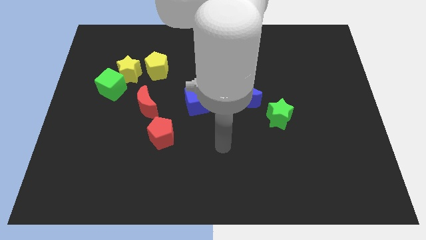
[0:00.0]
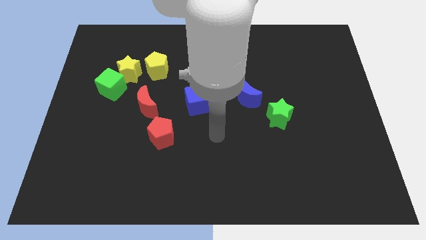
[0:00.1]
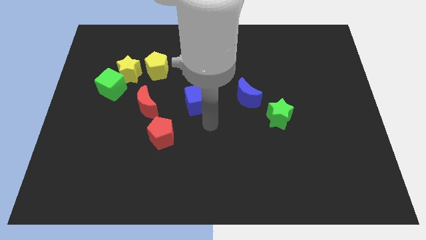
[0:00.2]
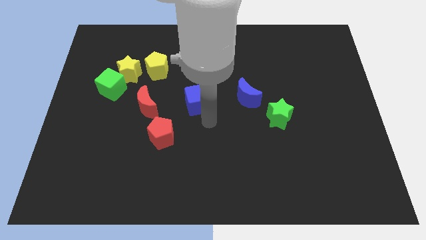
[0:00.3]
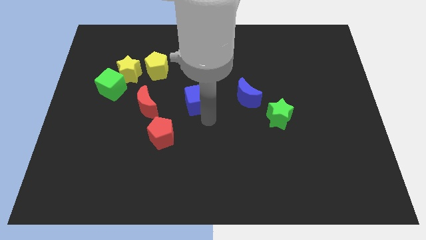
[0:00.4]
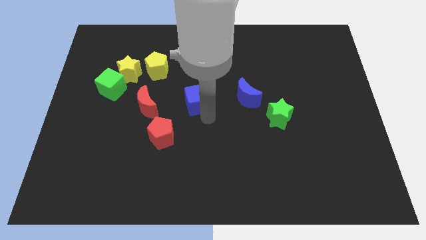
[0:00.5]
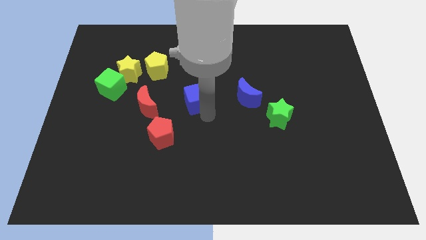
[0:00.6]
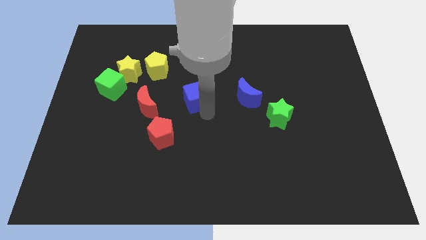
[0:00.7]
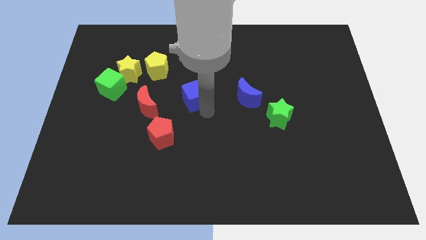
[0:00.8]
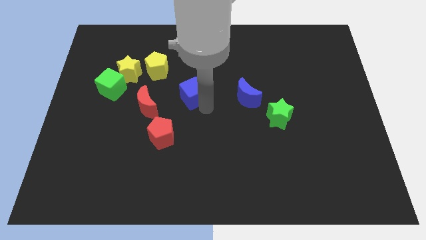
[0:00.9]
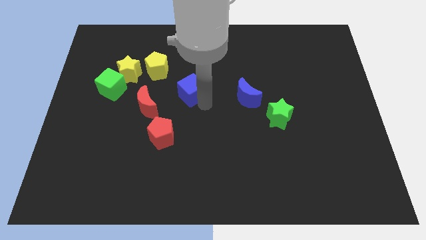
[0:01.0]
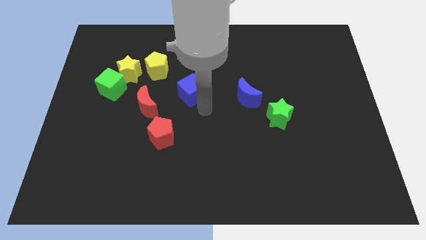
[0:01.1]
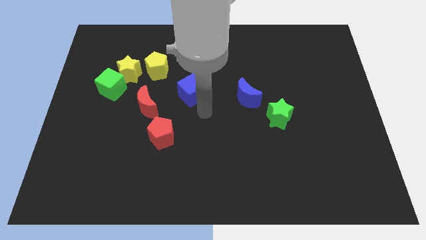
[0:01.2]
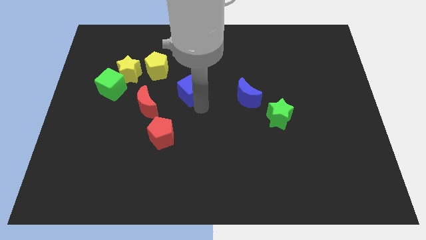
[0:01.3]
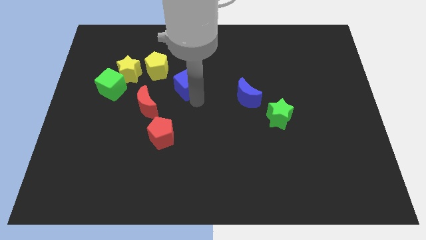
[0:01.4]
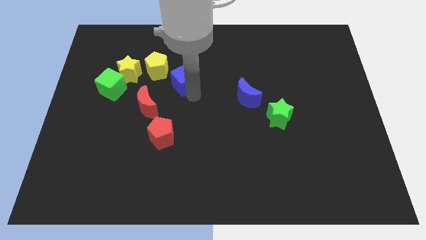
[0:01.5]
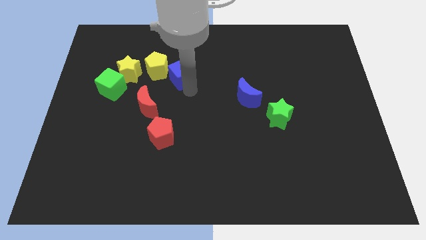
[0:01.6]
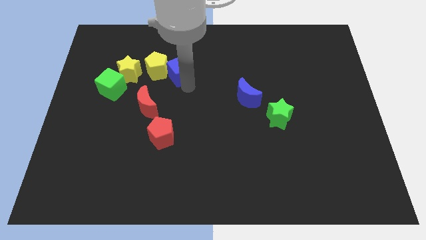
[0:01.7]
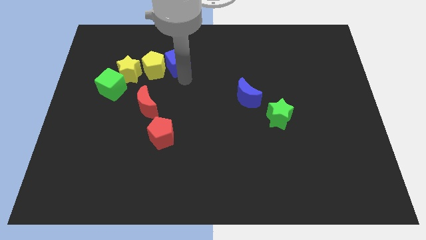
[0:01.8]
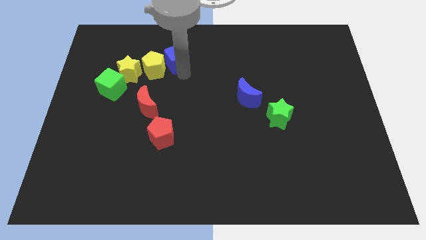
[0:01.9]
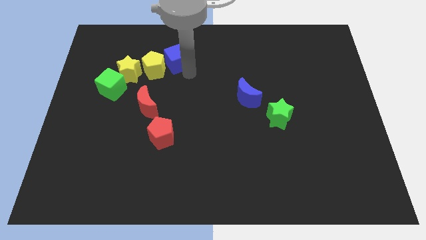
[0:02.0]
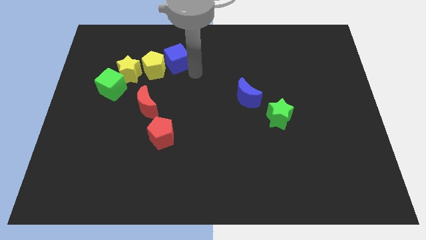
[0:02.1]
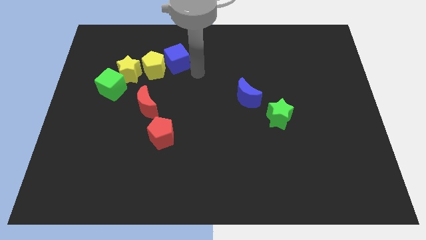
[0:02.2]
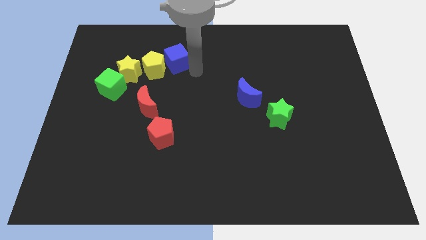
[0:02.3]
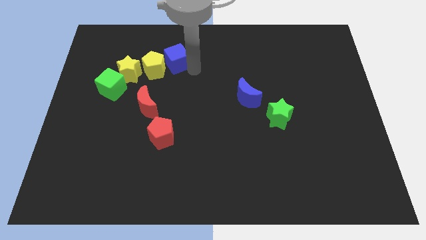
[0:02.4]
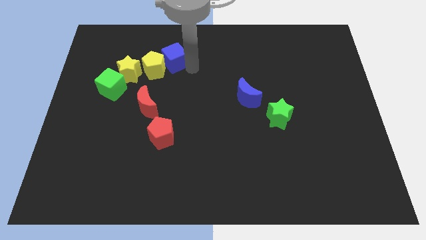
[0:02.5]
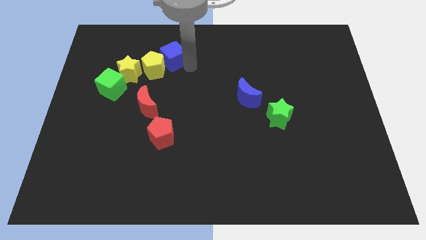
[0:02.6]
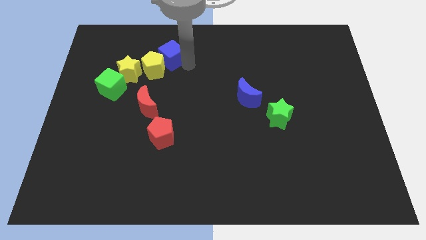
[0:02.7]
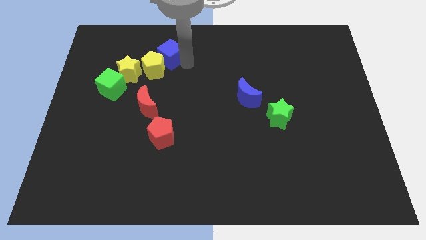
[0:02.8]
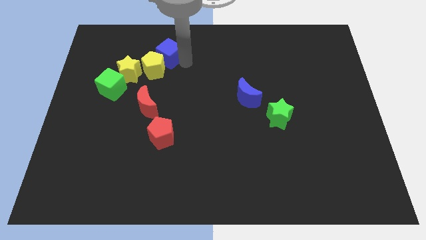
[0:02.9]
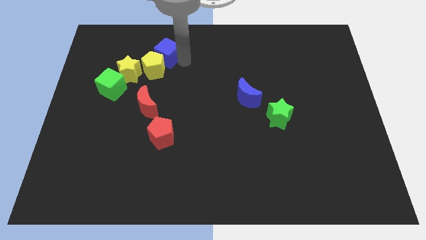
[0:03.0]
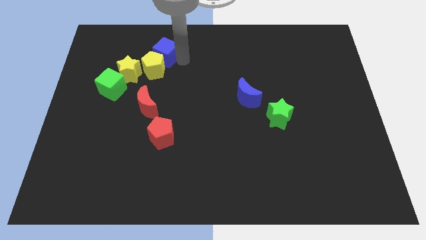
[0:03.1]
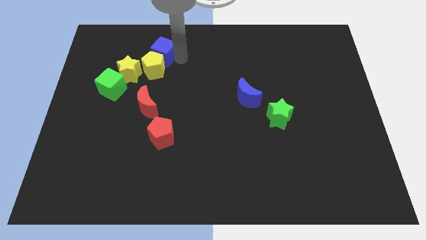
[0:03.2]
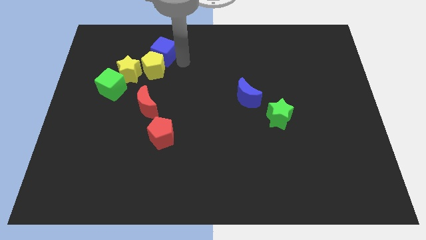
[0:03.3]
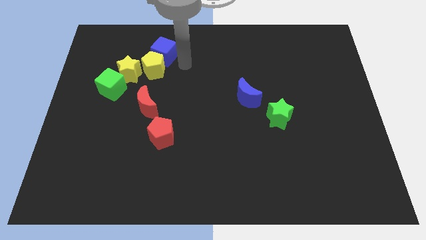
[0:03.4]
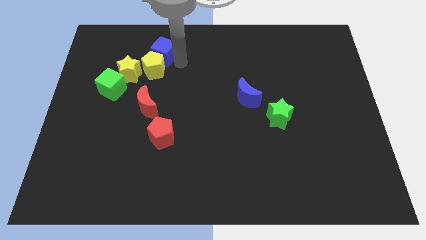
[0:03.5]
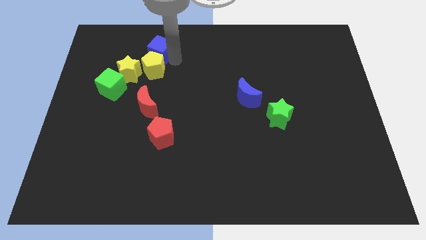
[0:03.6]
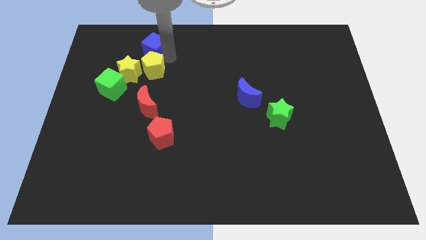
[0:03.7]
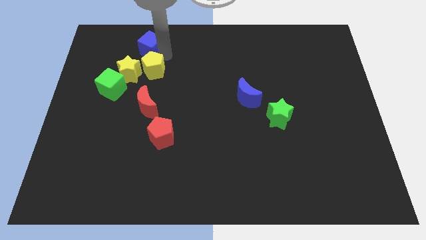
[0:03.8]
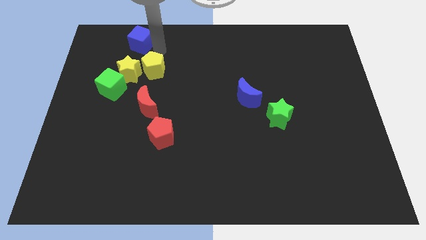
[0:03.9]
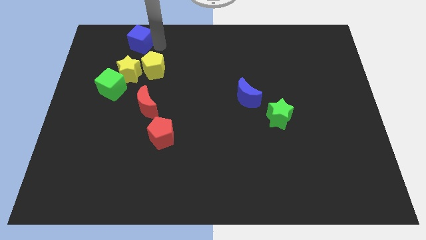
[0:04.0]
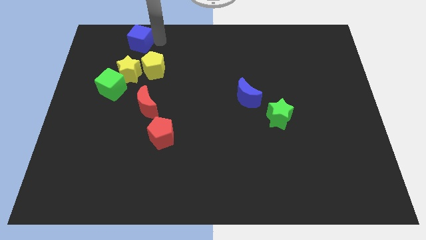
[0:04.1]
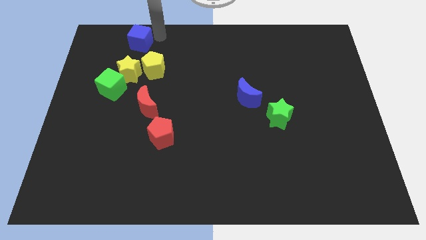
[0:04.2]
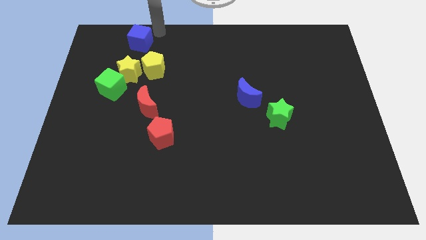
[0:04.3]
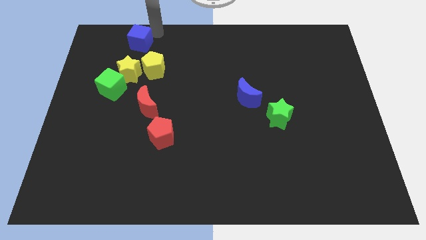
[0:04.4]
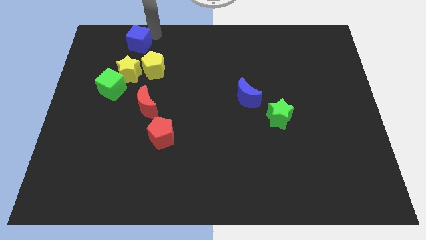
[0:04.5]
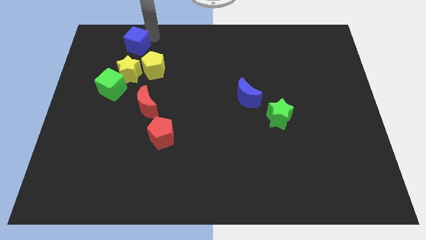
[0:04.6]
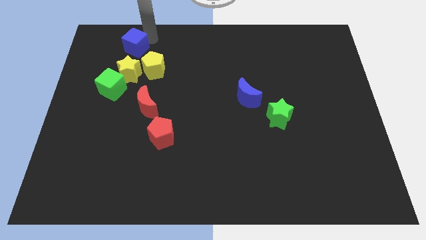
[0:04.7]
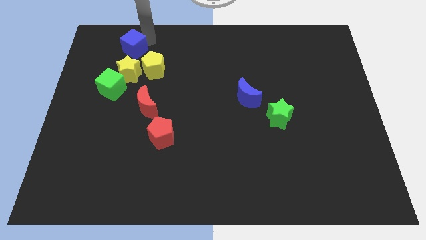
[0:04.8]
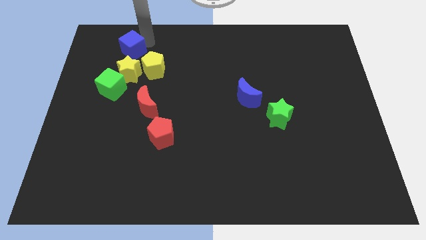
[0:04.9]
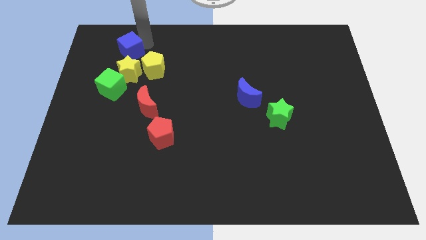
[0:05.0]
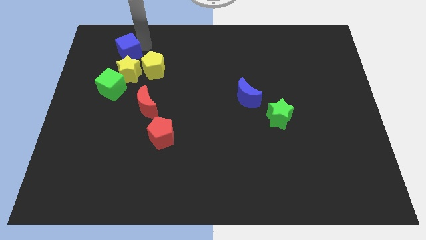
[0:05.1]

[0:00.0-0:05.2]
move the blue cube diagonally up and to the left of the yellow star

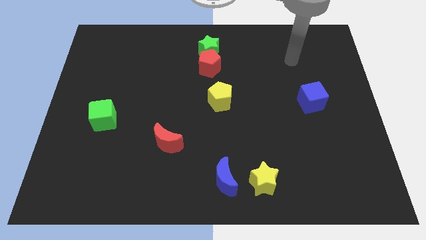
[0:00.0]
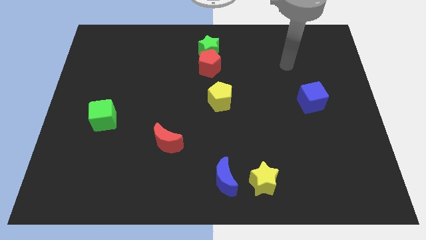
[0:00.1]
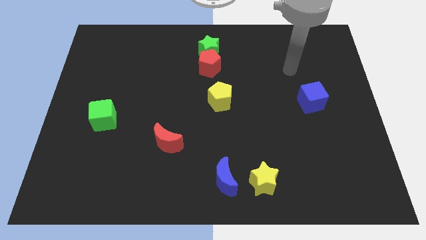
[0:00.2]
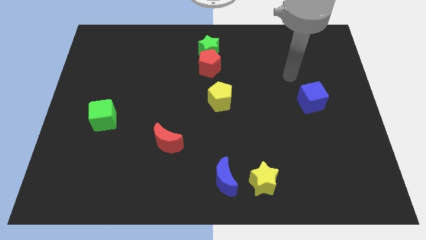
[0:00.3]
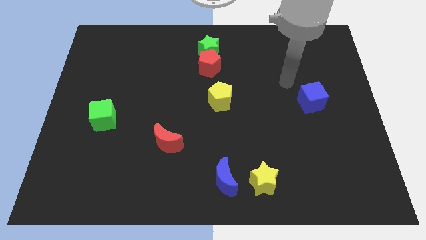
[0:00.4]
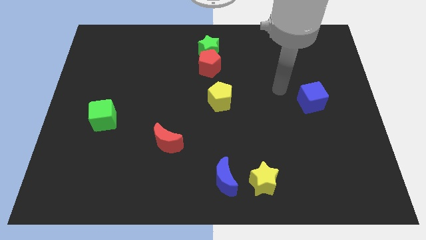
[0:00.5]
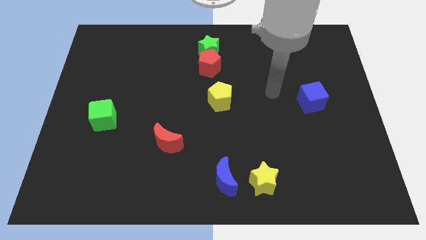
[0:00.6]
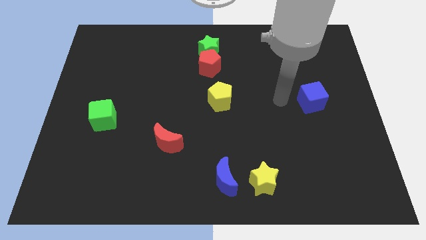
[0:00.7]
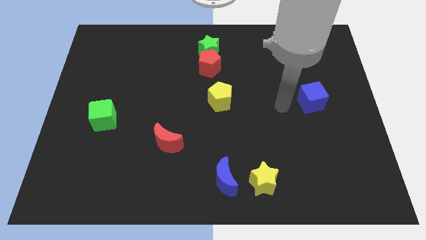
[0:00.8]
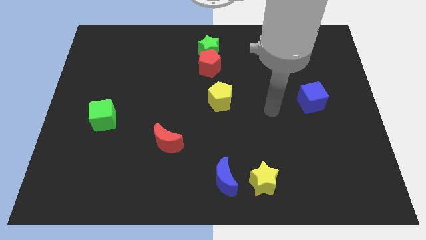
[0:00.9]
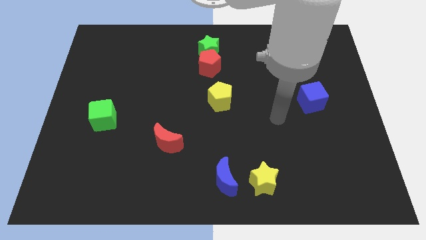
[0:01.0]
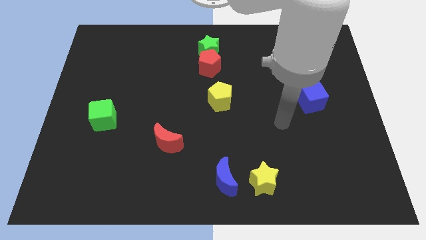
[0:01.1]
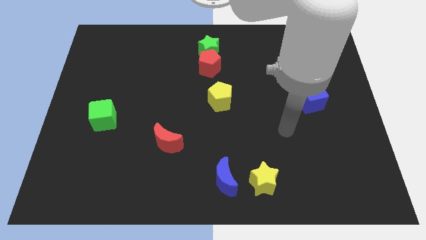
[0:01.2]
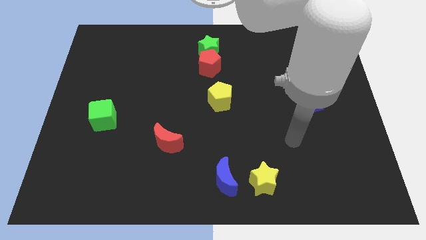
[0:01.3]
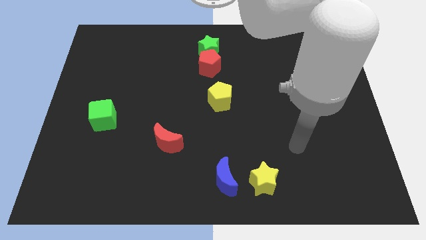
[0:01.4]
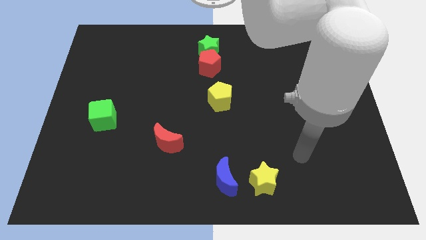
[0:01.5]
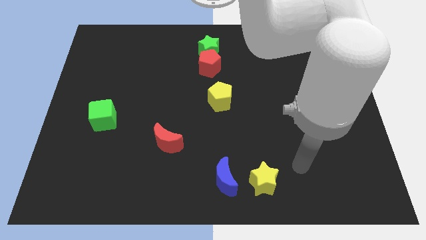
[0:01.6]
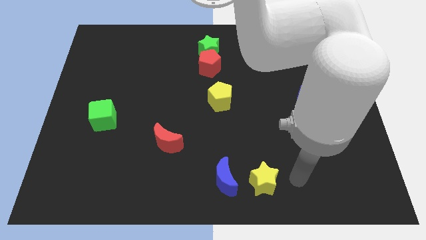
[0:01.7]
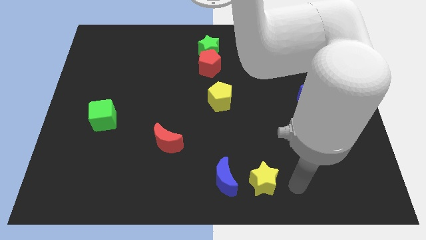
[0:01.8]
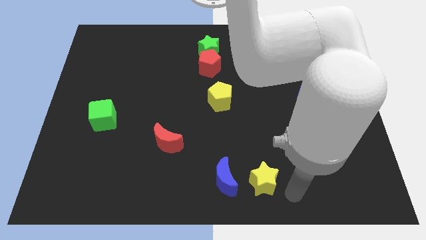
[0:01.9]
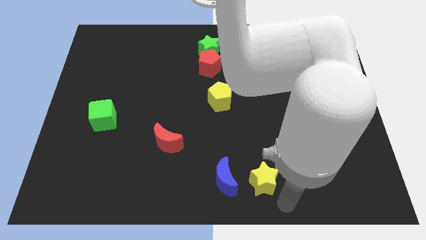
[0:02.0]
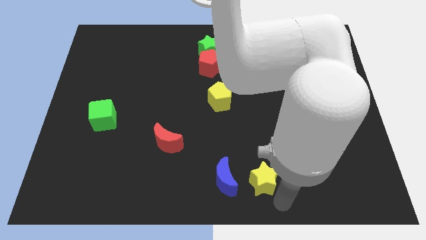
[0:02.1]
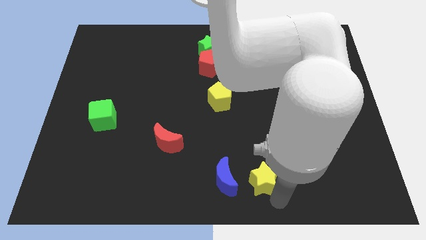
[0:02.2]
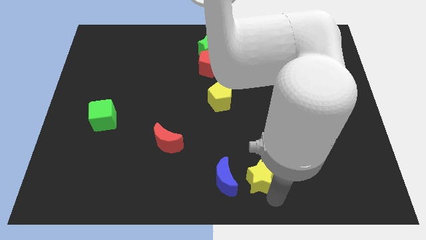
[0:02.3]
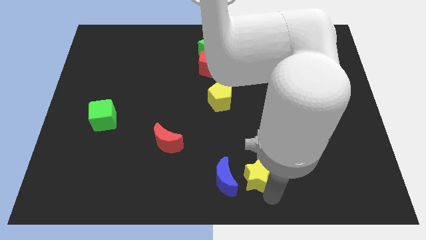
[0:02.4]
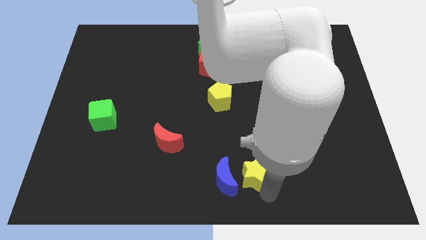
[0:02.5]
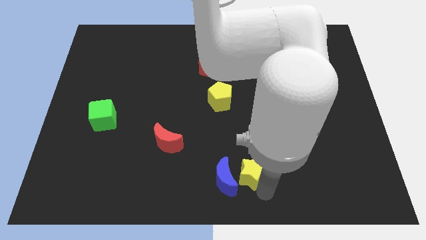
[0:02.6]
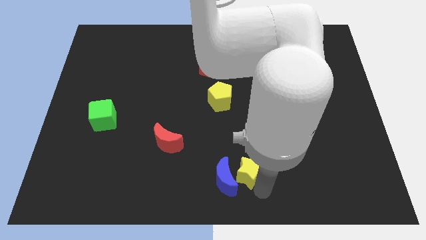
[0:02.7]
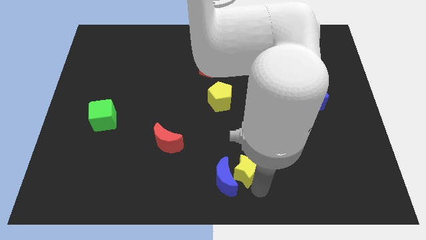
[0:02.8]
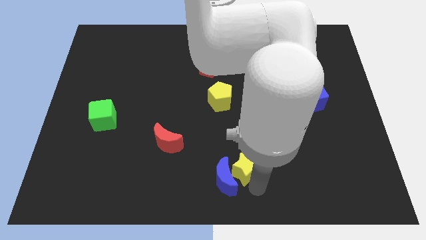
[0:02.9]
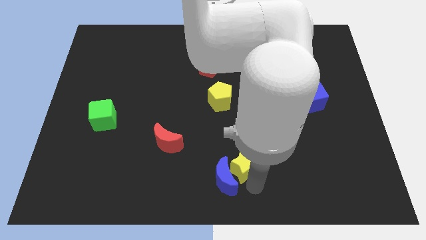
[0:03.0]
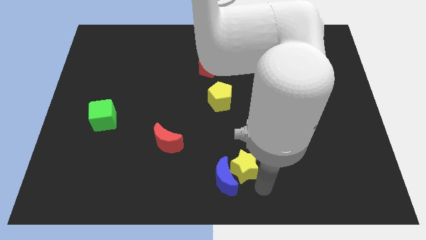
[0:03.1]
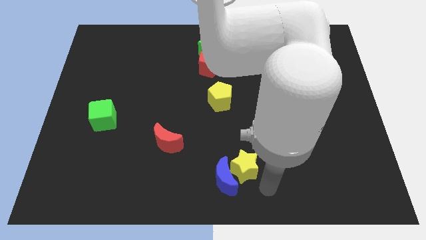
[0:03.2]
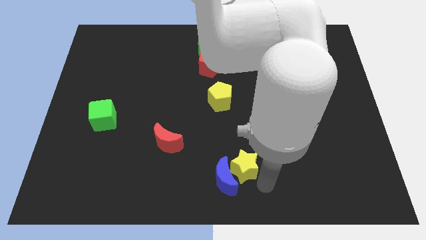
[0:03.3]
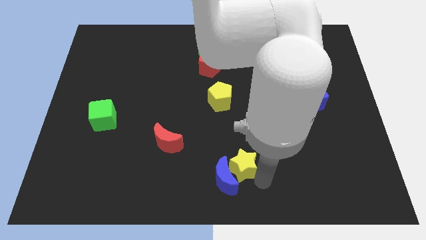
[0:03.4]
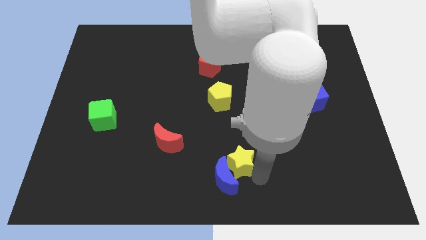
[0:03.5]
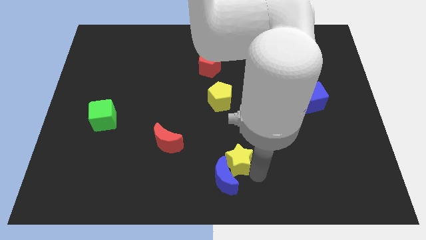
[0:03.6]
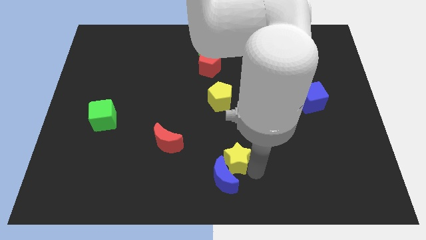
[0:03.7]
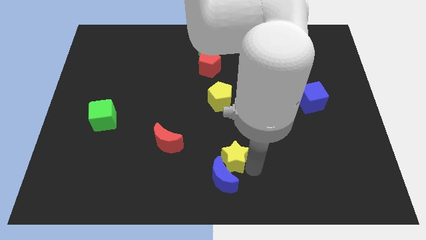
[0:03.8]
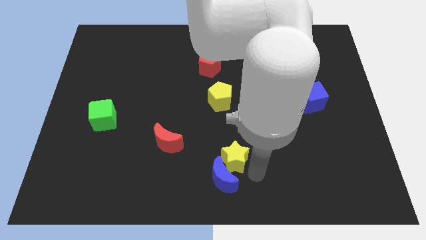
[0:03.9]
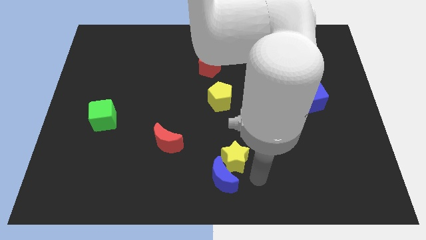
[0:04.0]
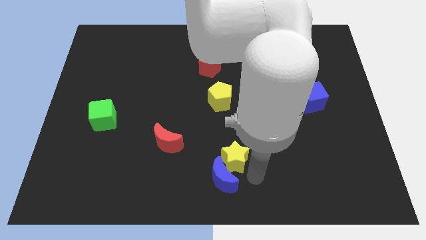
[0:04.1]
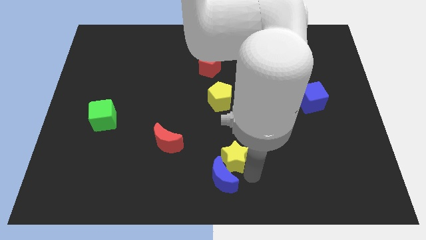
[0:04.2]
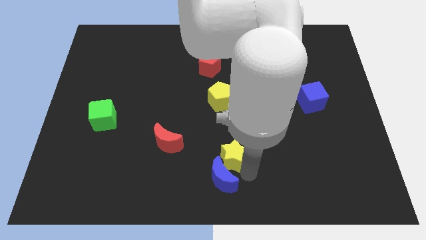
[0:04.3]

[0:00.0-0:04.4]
move the yellow star just right of the red moon
